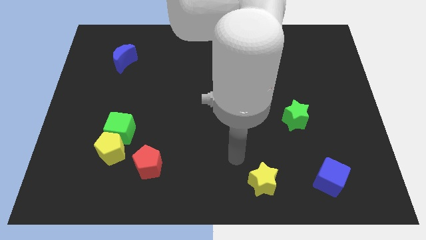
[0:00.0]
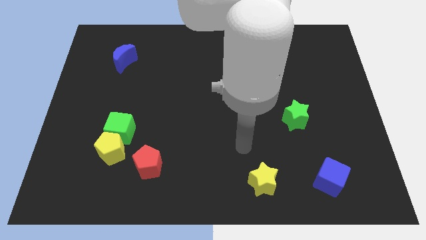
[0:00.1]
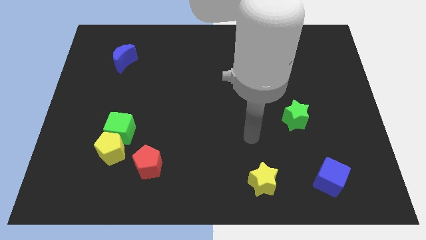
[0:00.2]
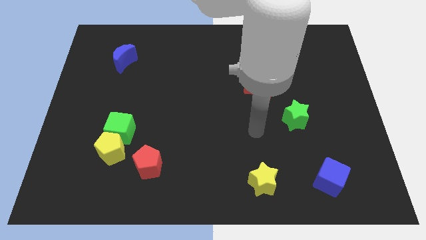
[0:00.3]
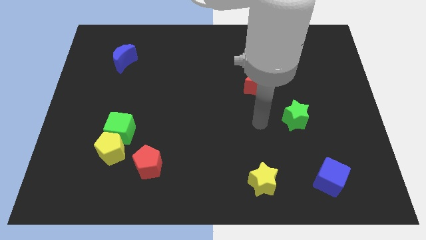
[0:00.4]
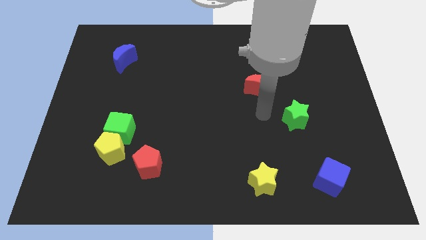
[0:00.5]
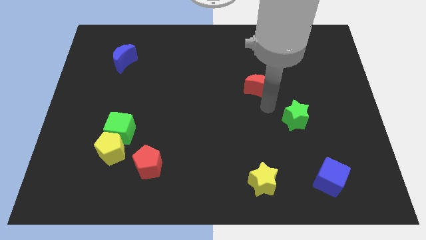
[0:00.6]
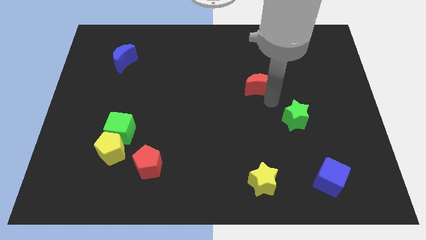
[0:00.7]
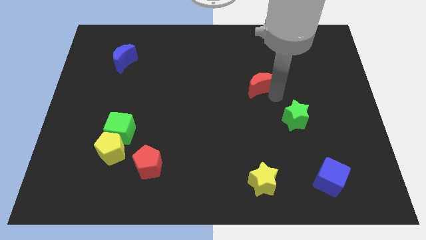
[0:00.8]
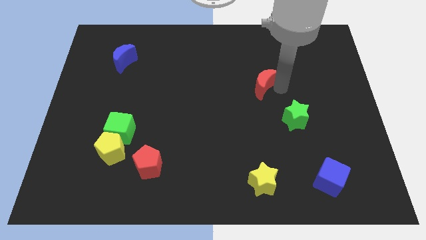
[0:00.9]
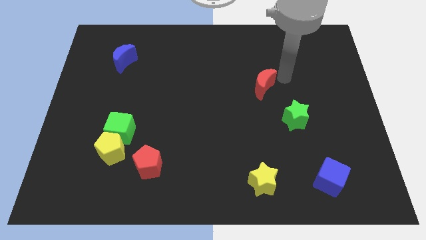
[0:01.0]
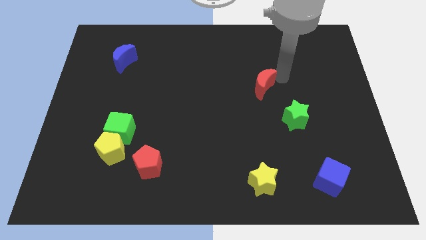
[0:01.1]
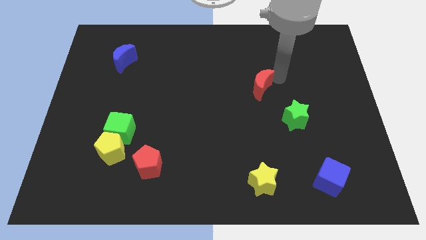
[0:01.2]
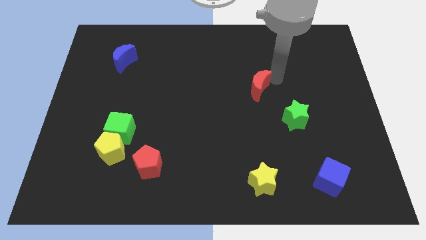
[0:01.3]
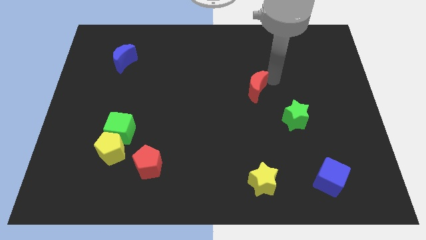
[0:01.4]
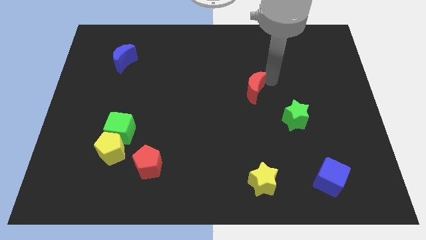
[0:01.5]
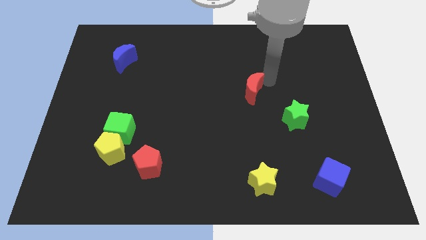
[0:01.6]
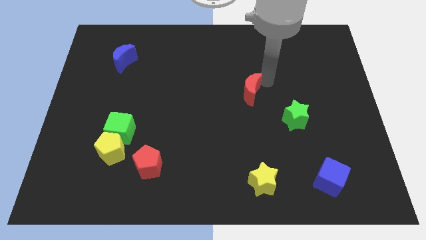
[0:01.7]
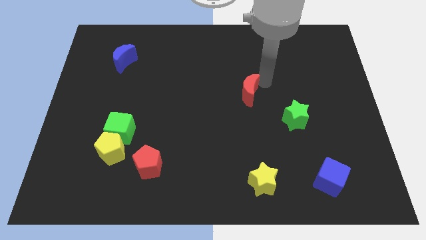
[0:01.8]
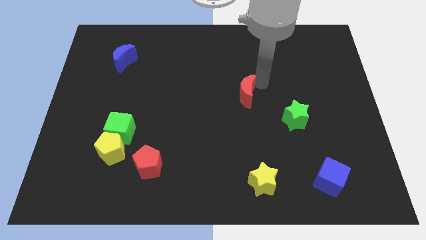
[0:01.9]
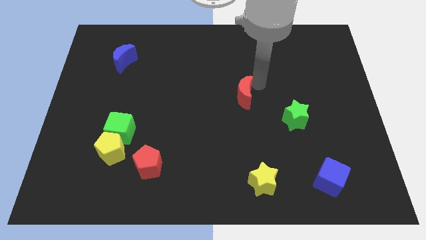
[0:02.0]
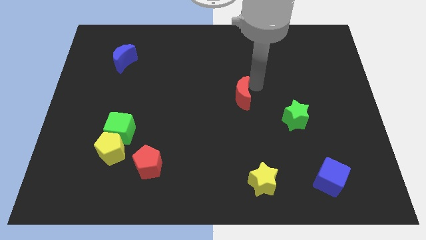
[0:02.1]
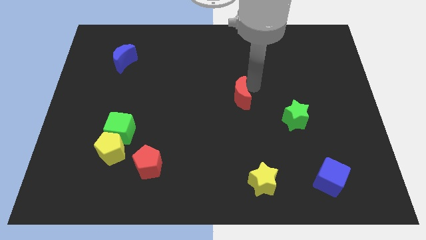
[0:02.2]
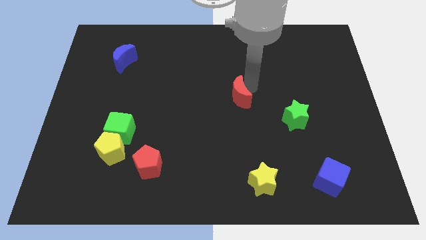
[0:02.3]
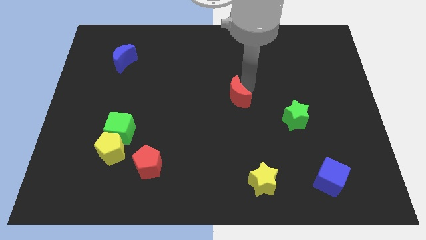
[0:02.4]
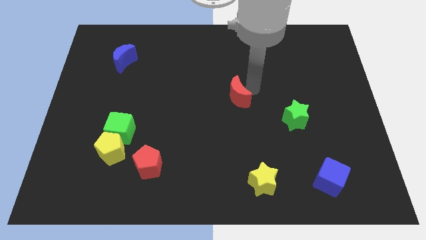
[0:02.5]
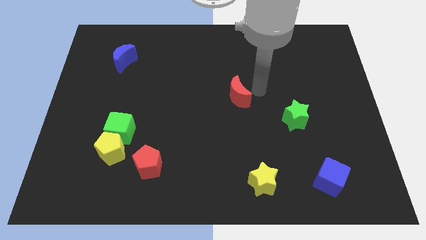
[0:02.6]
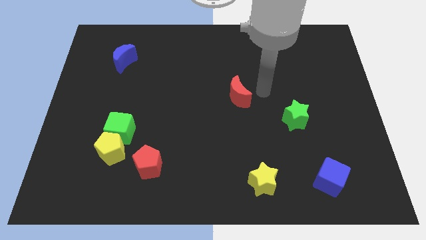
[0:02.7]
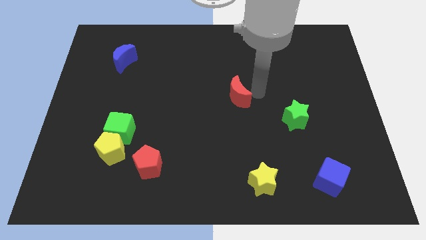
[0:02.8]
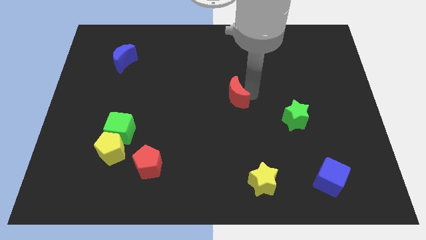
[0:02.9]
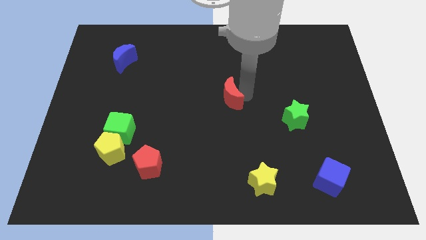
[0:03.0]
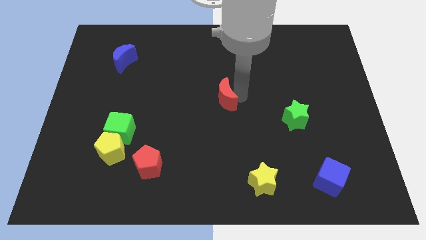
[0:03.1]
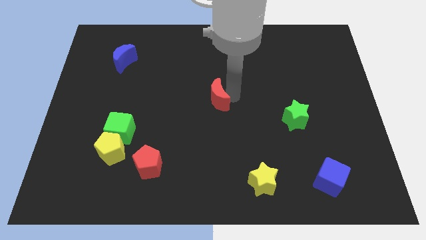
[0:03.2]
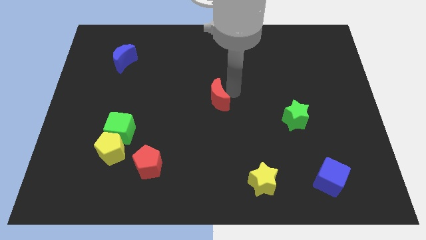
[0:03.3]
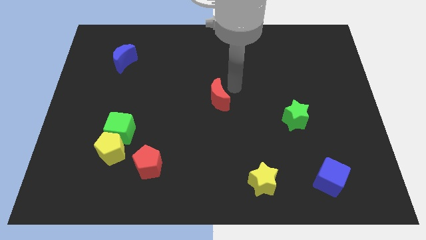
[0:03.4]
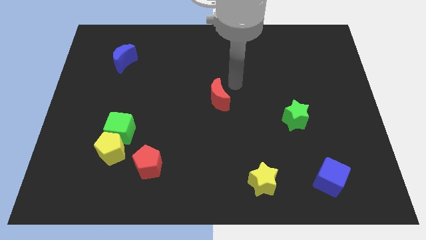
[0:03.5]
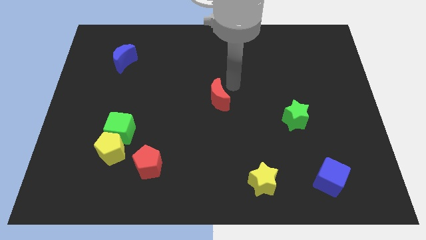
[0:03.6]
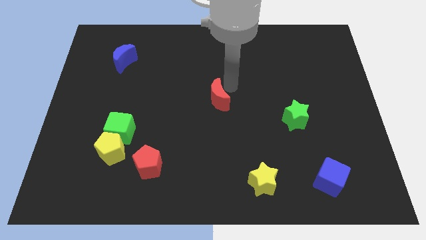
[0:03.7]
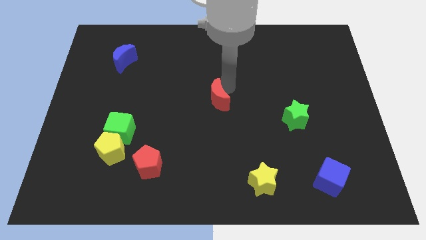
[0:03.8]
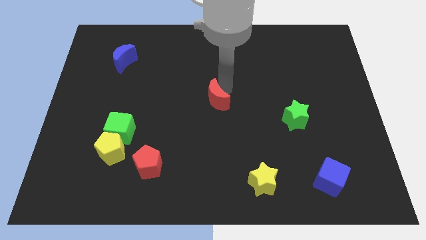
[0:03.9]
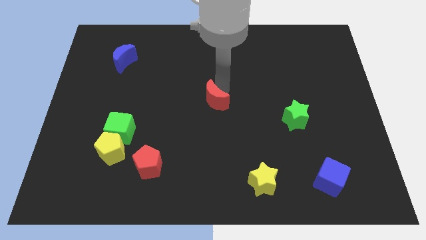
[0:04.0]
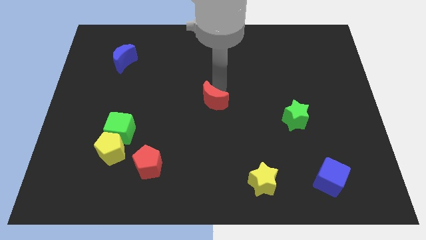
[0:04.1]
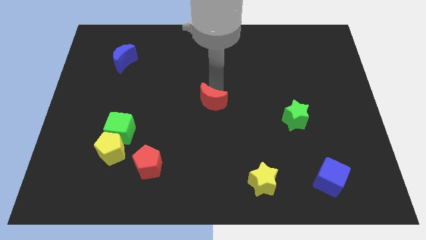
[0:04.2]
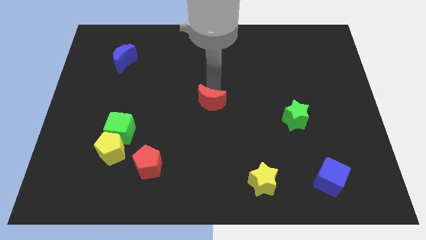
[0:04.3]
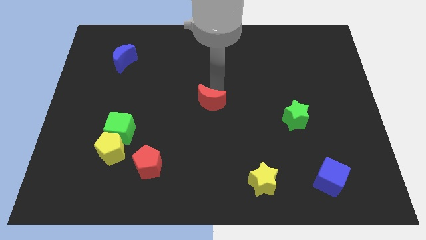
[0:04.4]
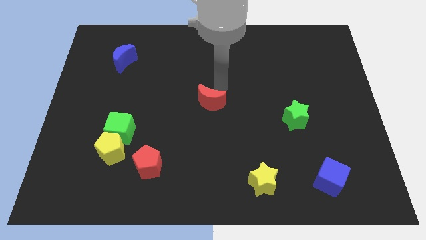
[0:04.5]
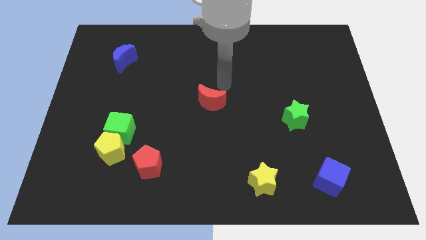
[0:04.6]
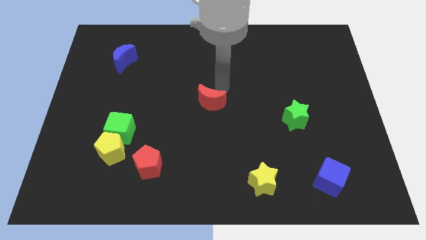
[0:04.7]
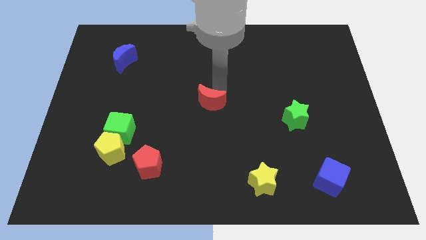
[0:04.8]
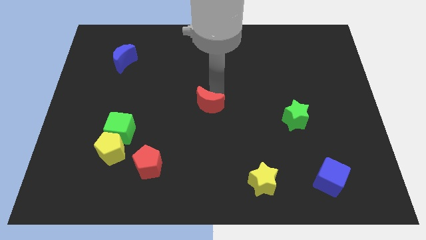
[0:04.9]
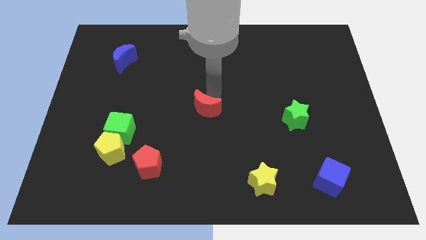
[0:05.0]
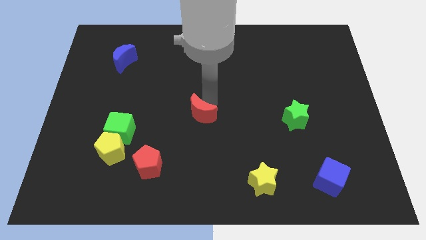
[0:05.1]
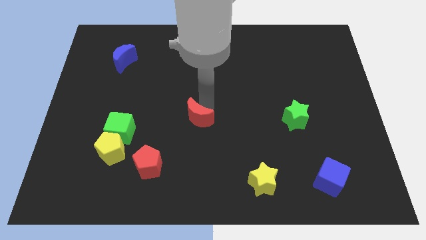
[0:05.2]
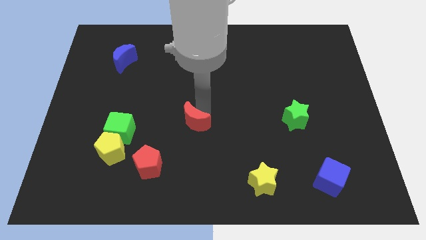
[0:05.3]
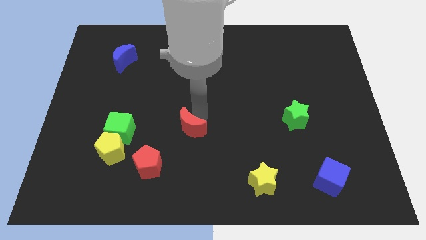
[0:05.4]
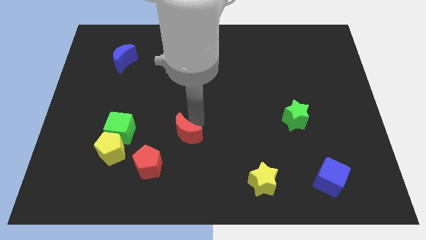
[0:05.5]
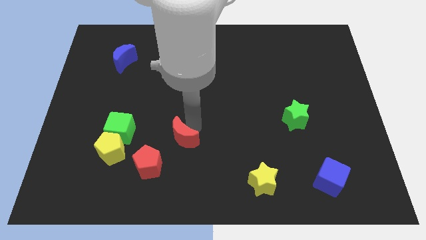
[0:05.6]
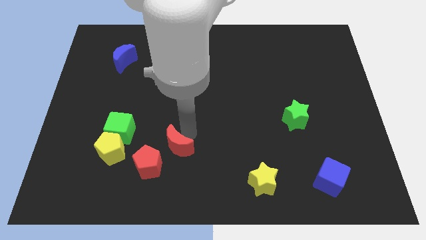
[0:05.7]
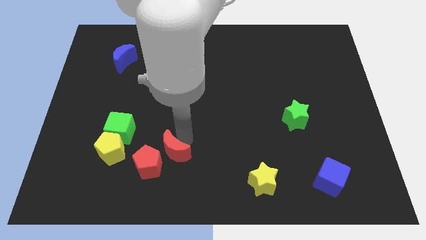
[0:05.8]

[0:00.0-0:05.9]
move the red moon towards the red pentagon

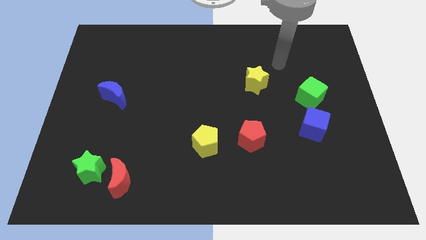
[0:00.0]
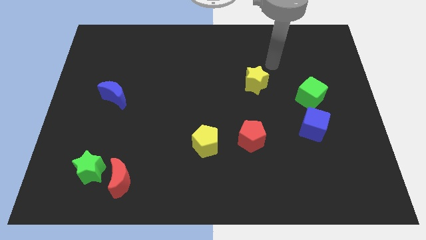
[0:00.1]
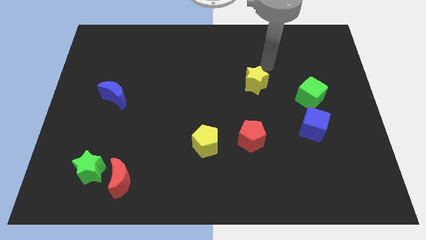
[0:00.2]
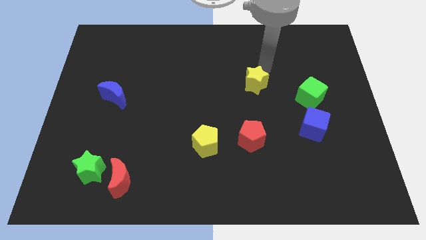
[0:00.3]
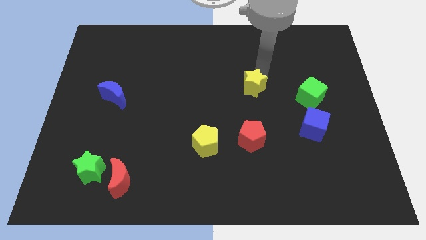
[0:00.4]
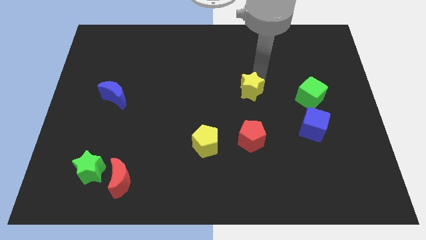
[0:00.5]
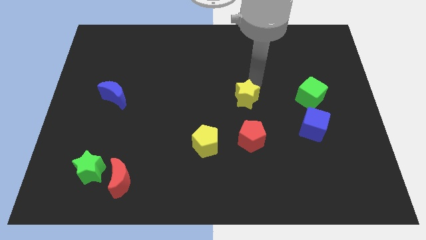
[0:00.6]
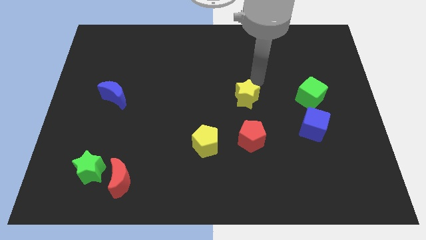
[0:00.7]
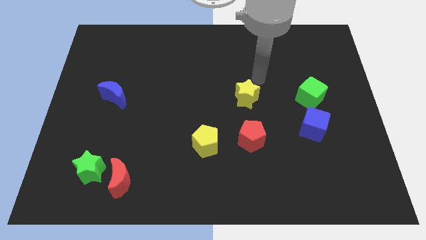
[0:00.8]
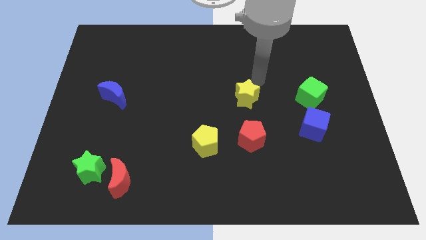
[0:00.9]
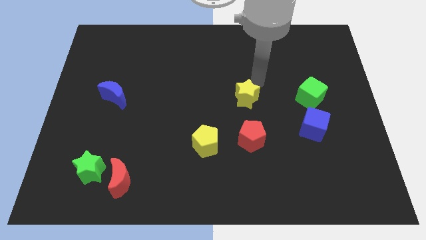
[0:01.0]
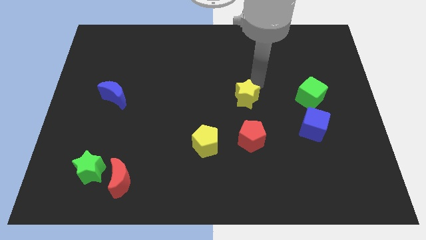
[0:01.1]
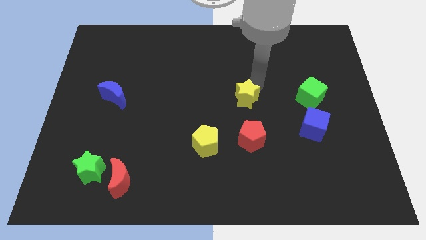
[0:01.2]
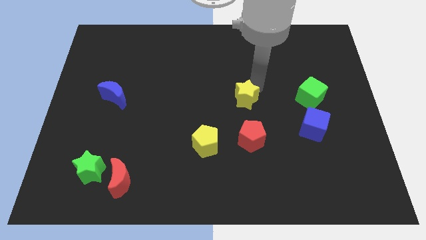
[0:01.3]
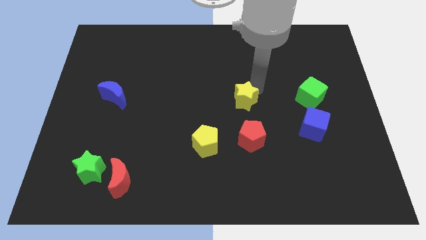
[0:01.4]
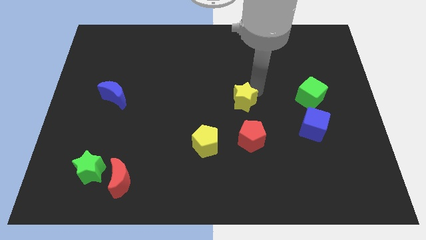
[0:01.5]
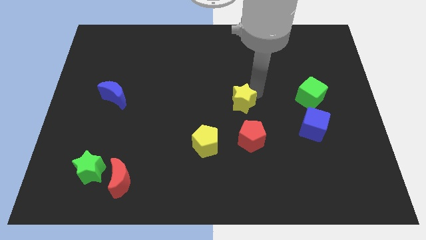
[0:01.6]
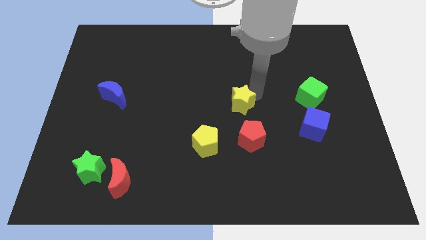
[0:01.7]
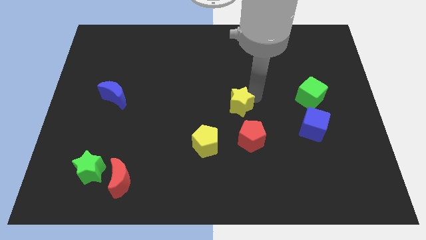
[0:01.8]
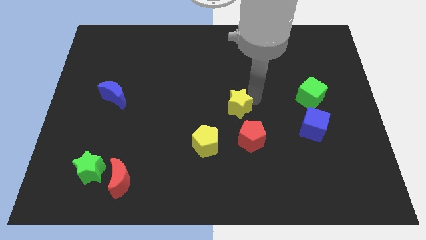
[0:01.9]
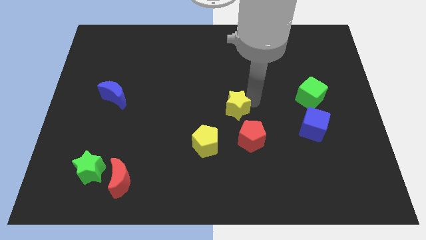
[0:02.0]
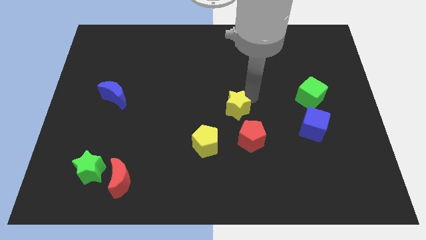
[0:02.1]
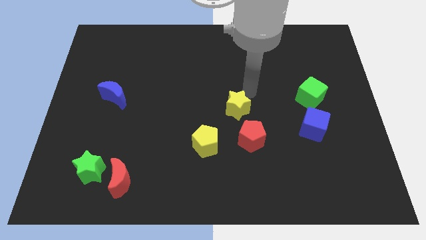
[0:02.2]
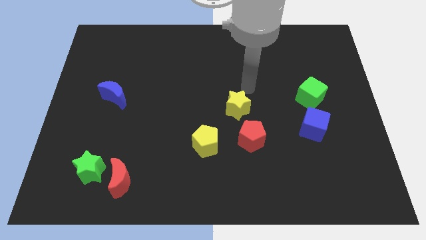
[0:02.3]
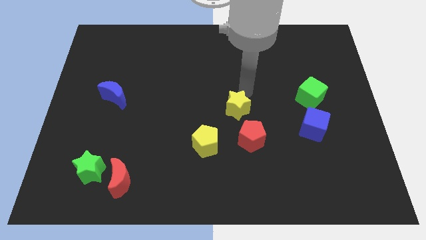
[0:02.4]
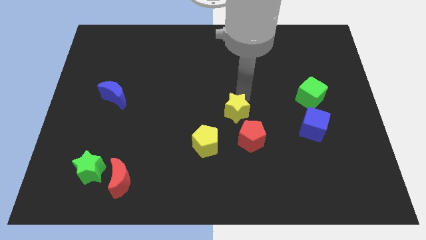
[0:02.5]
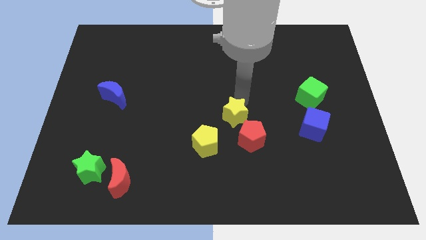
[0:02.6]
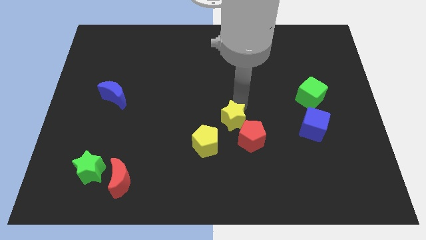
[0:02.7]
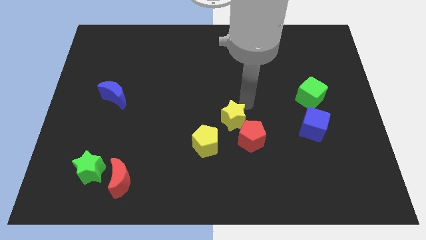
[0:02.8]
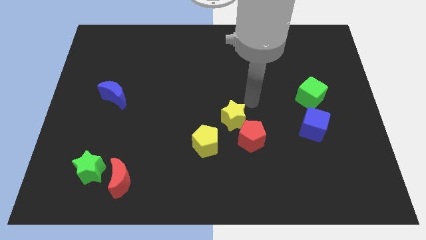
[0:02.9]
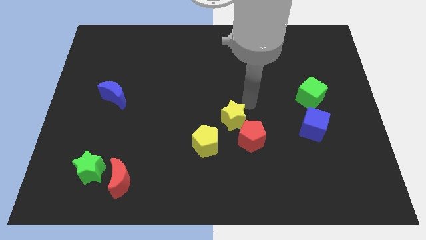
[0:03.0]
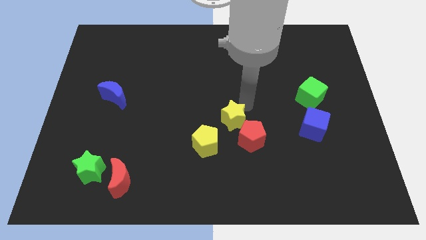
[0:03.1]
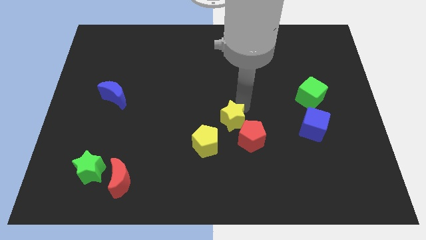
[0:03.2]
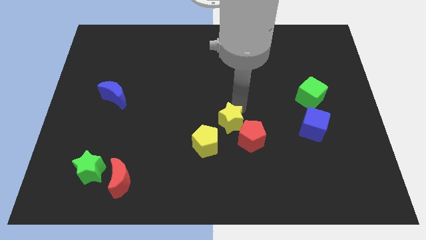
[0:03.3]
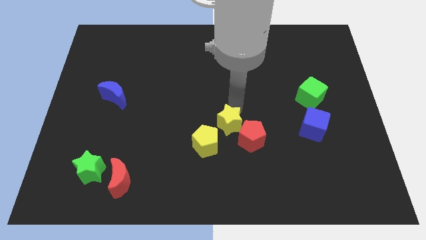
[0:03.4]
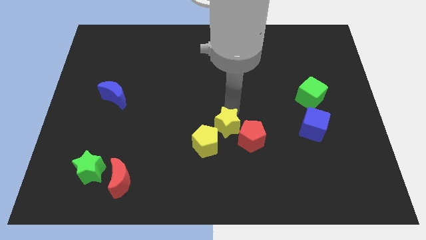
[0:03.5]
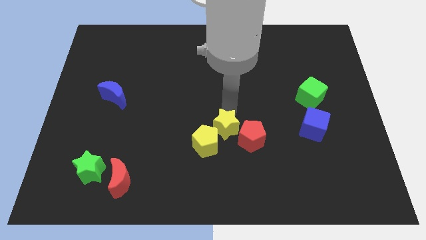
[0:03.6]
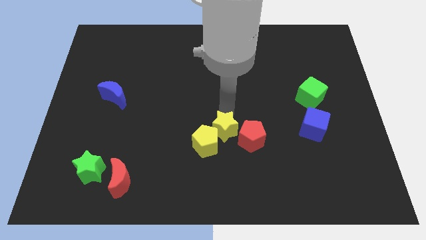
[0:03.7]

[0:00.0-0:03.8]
push the yellow star to the yellow pentagon
